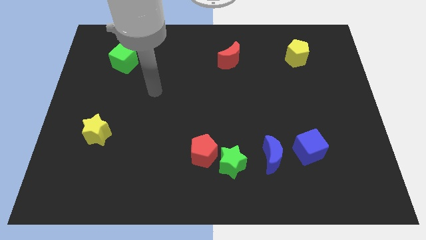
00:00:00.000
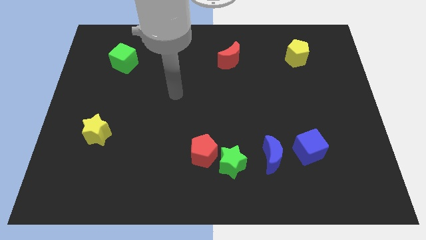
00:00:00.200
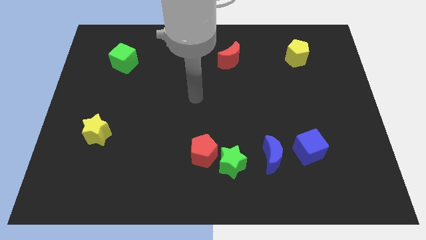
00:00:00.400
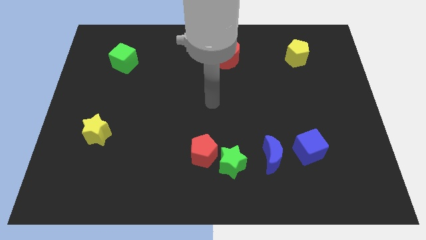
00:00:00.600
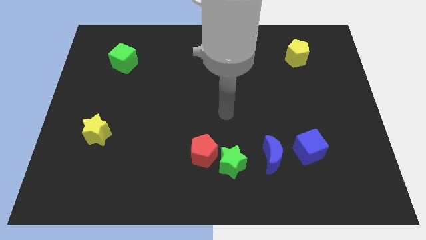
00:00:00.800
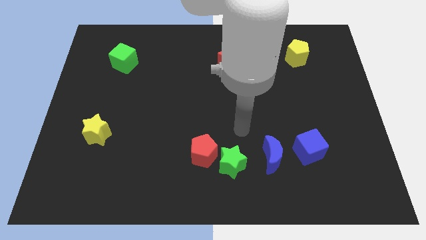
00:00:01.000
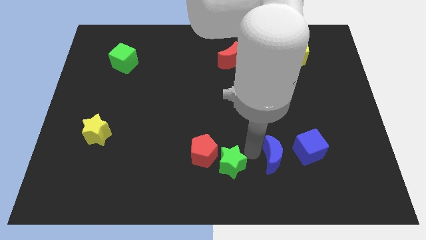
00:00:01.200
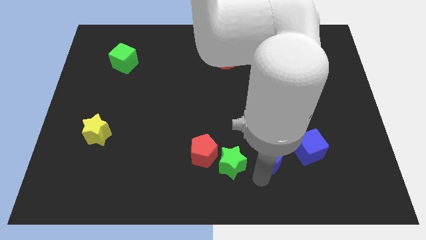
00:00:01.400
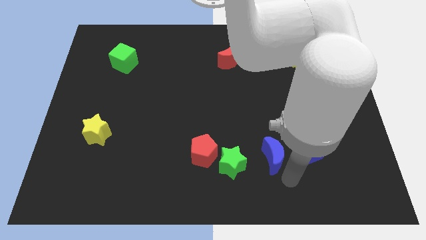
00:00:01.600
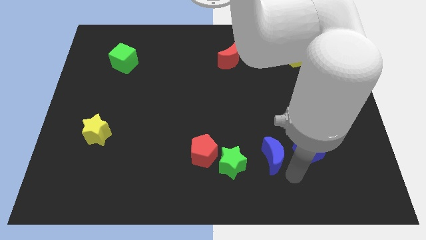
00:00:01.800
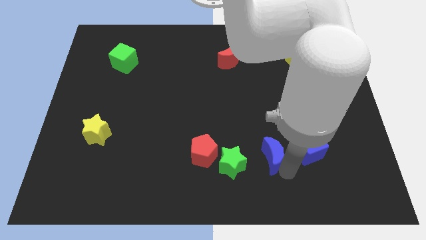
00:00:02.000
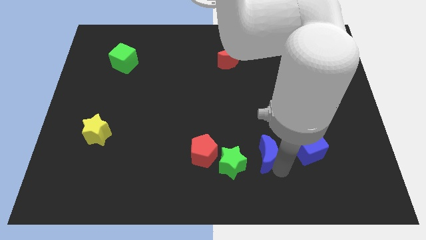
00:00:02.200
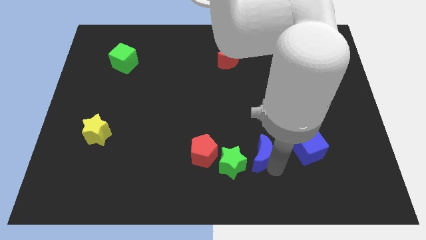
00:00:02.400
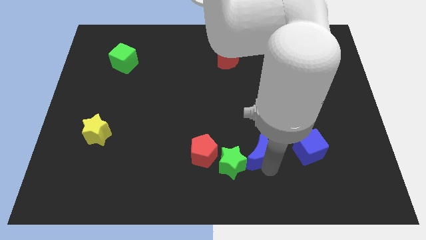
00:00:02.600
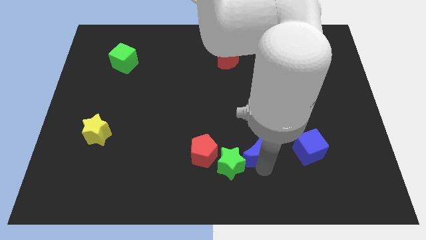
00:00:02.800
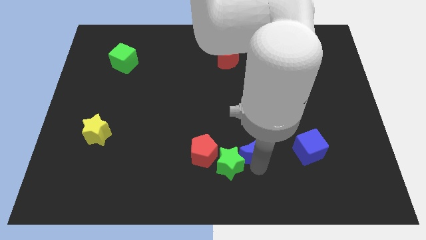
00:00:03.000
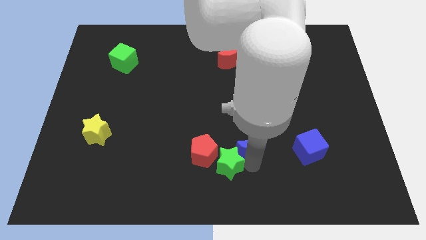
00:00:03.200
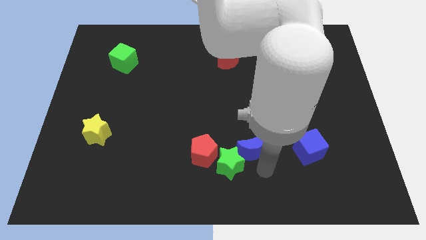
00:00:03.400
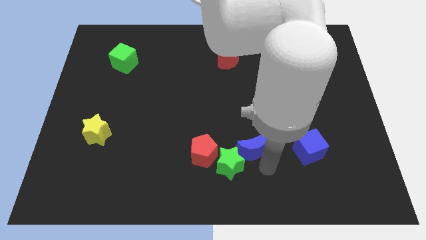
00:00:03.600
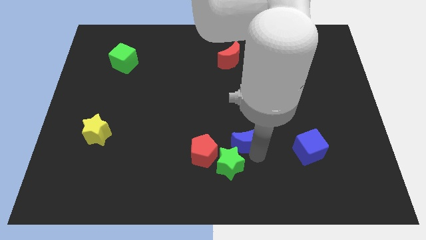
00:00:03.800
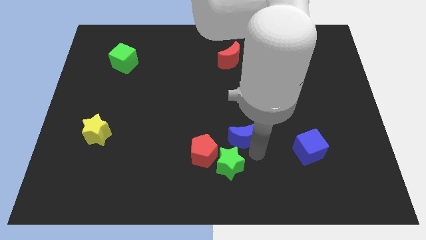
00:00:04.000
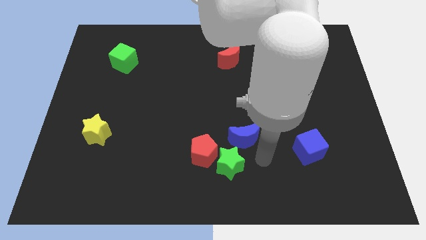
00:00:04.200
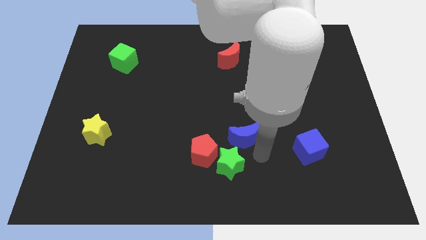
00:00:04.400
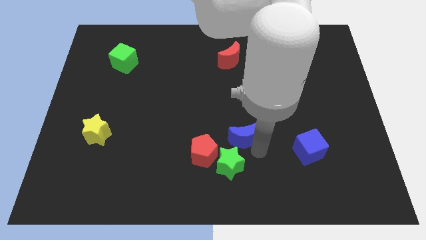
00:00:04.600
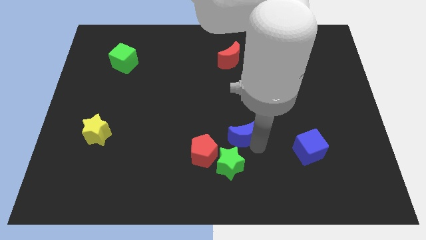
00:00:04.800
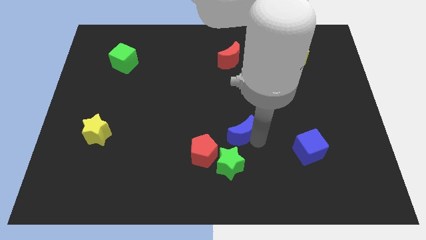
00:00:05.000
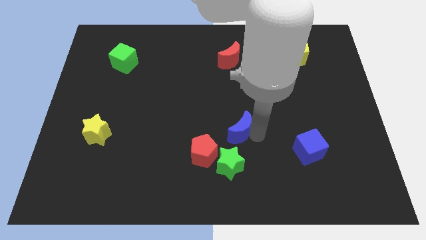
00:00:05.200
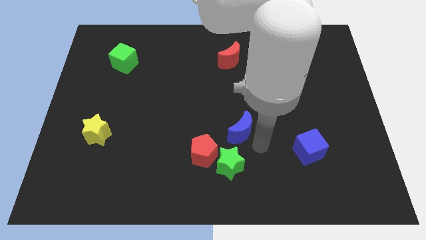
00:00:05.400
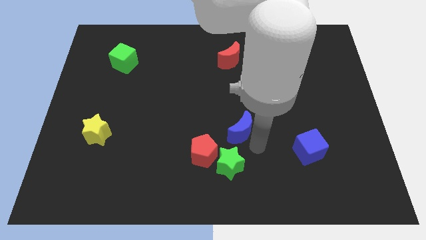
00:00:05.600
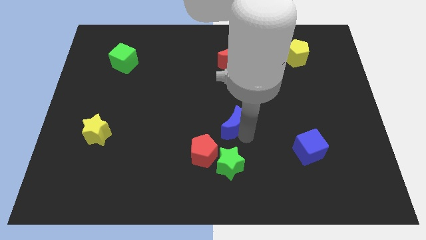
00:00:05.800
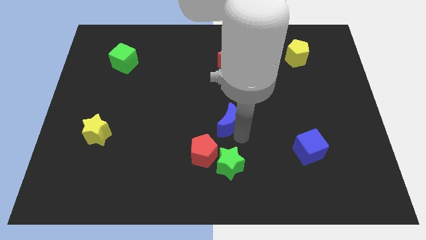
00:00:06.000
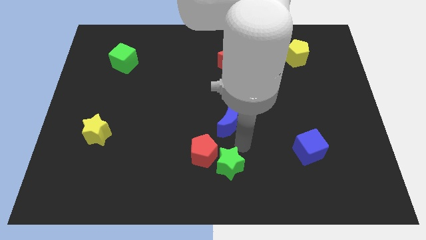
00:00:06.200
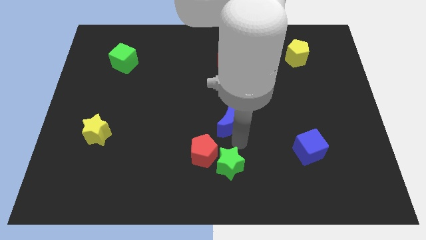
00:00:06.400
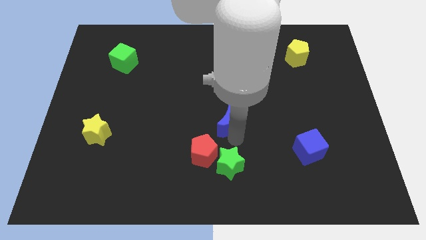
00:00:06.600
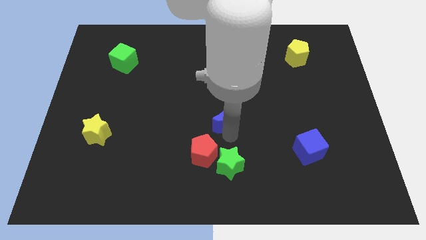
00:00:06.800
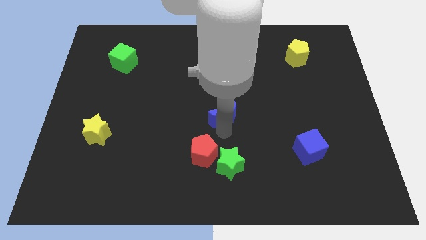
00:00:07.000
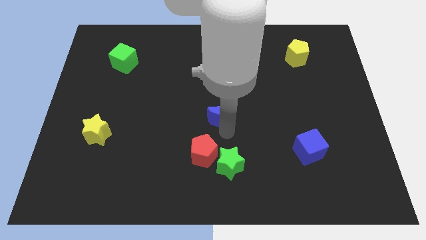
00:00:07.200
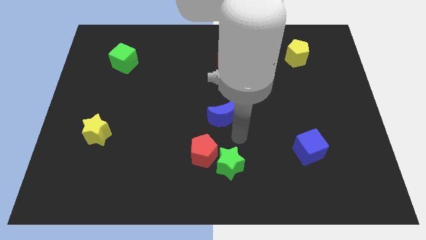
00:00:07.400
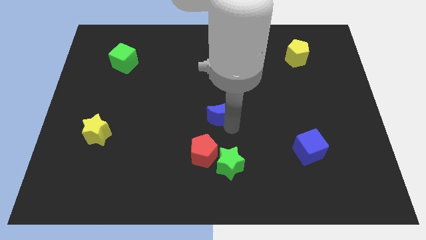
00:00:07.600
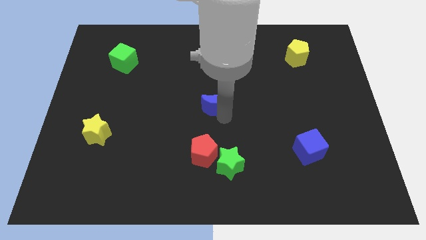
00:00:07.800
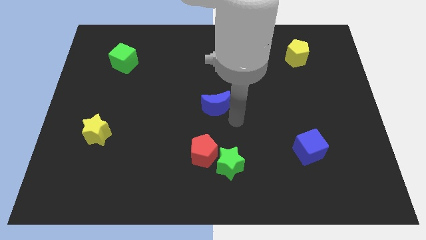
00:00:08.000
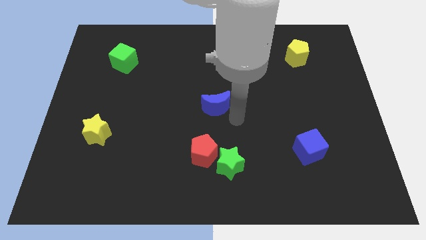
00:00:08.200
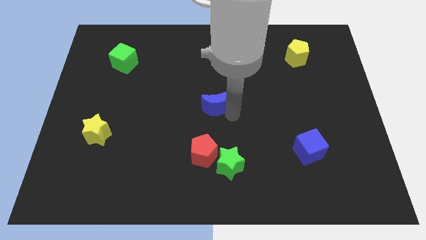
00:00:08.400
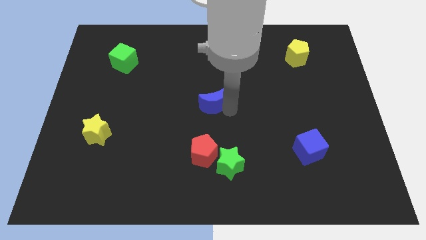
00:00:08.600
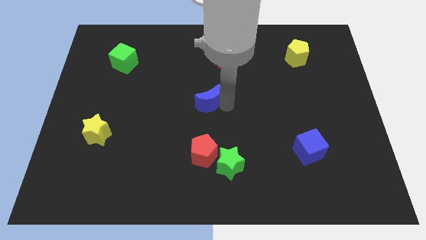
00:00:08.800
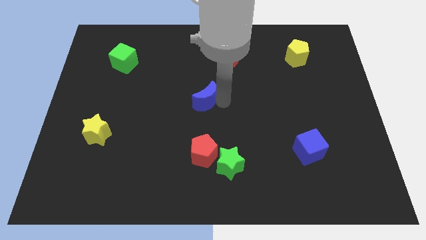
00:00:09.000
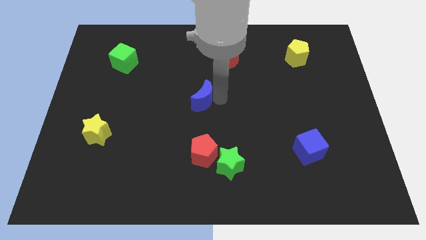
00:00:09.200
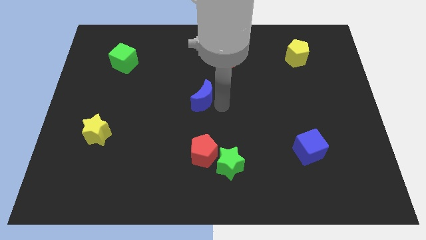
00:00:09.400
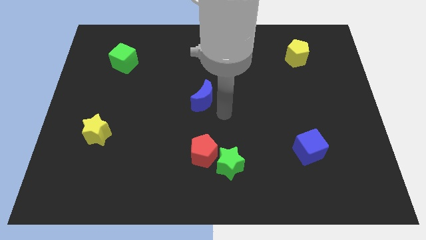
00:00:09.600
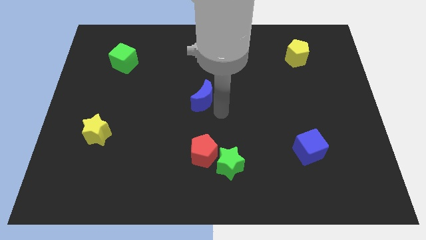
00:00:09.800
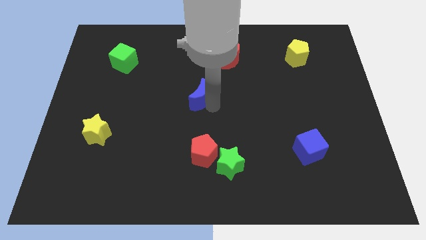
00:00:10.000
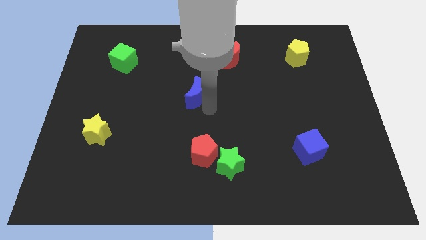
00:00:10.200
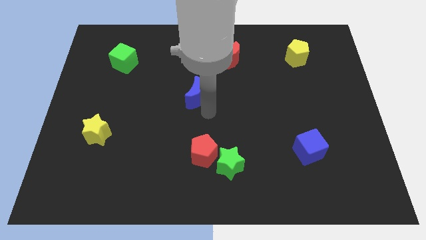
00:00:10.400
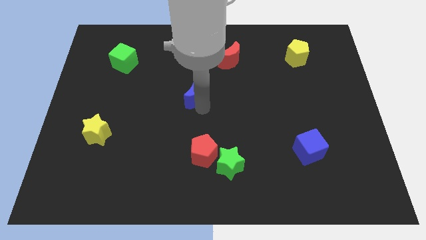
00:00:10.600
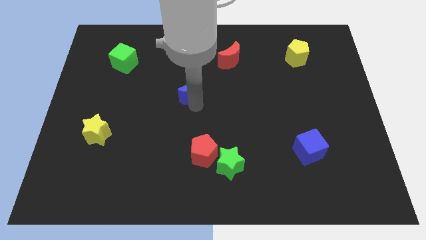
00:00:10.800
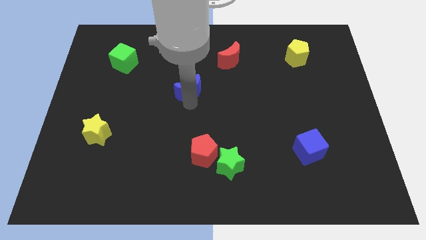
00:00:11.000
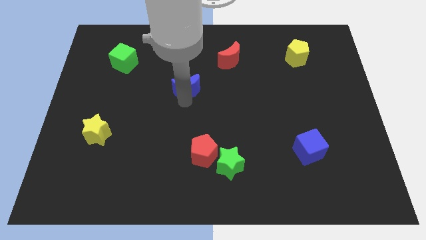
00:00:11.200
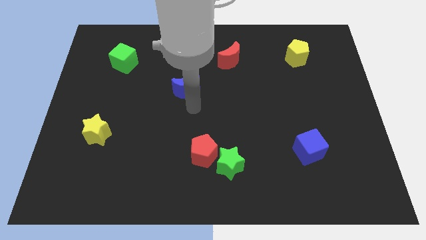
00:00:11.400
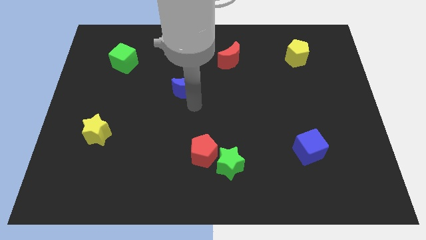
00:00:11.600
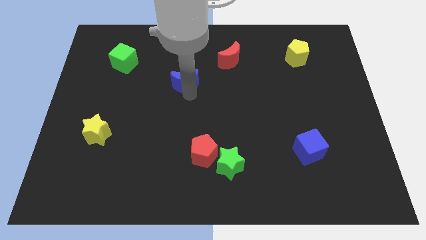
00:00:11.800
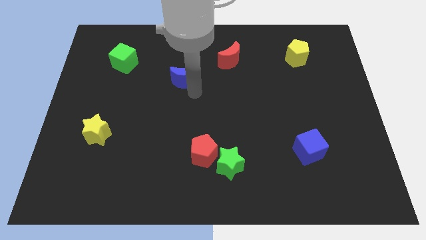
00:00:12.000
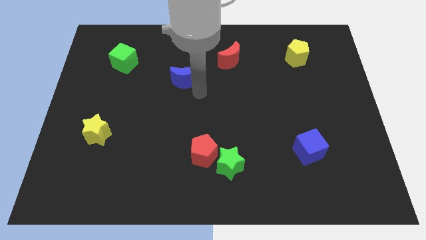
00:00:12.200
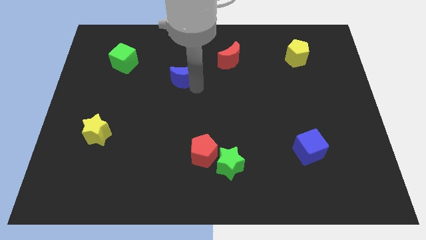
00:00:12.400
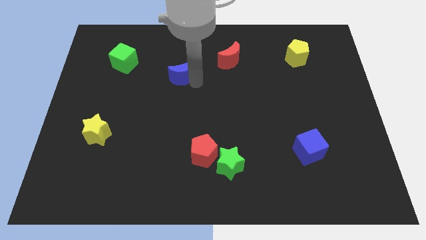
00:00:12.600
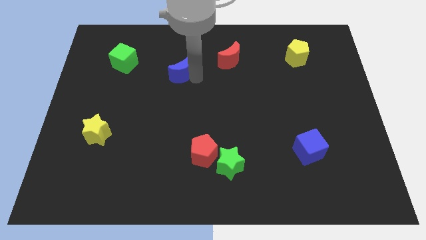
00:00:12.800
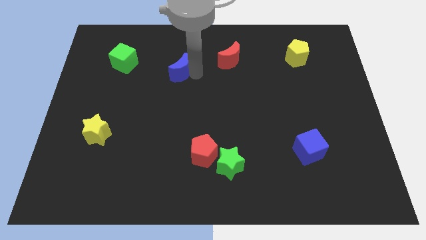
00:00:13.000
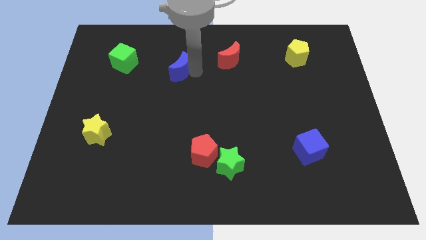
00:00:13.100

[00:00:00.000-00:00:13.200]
push the blue moon to the right of the green cube

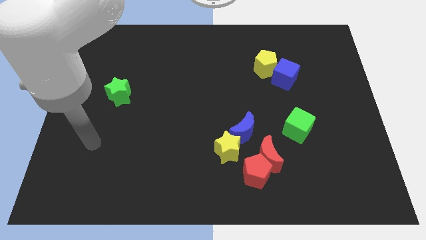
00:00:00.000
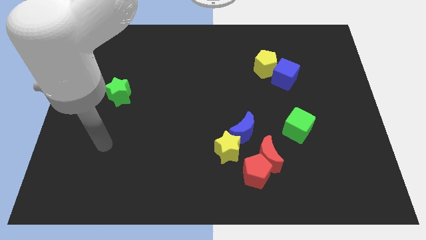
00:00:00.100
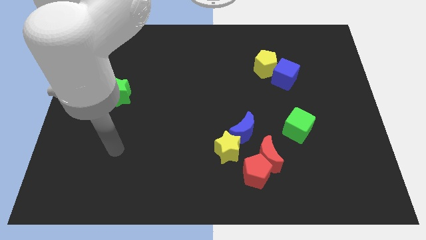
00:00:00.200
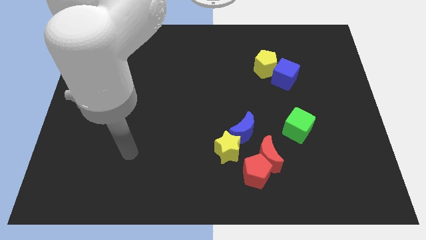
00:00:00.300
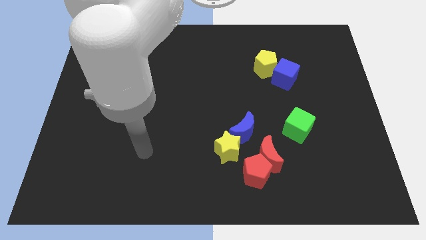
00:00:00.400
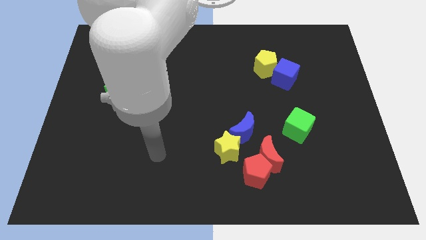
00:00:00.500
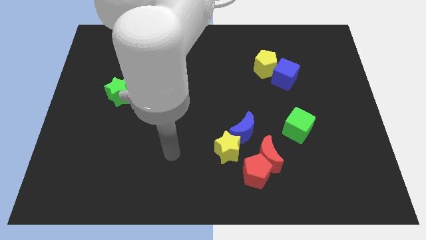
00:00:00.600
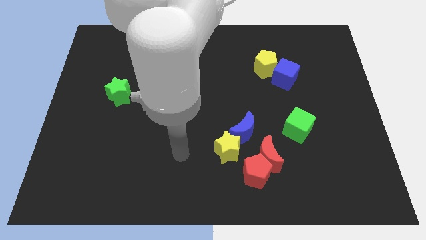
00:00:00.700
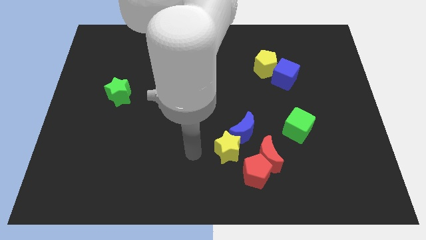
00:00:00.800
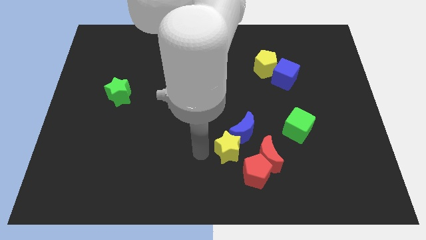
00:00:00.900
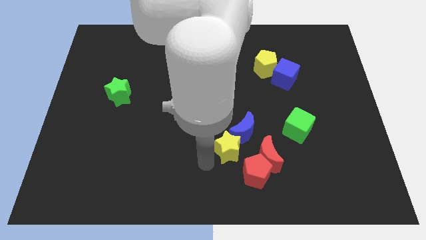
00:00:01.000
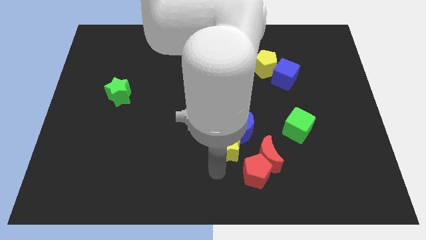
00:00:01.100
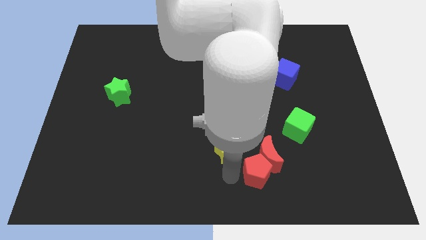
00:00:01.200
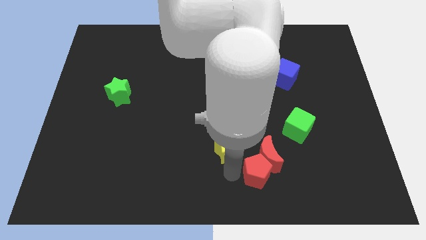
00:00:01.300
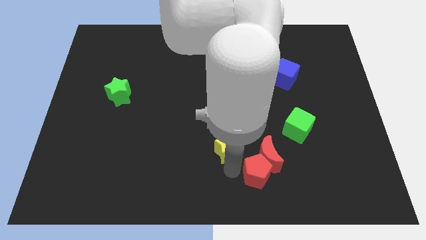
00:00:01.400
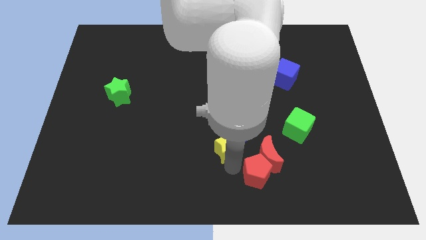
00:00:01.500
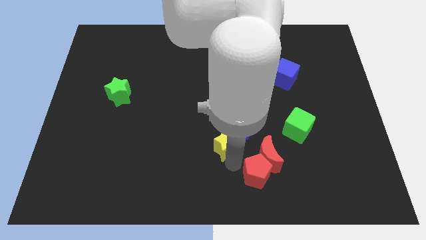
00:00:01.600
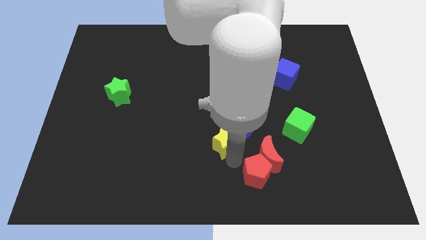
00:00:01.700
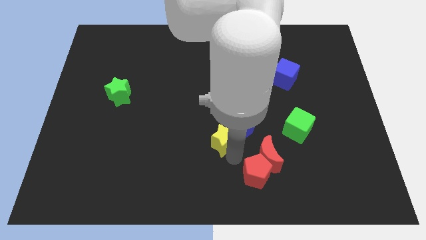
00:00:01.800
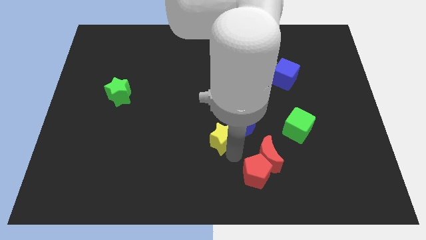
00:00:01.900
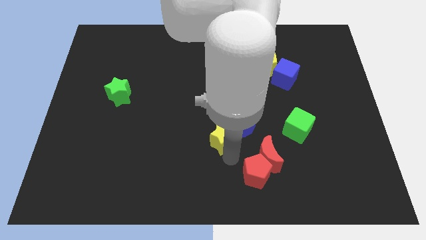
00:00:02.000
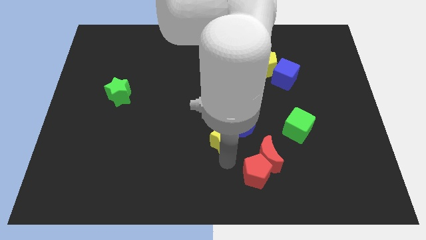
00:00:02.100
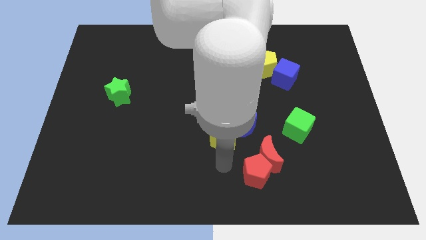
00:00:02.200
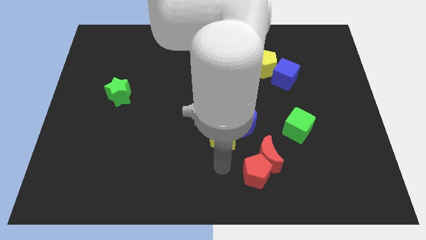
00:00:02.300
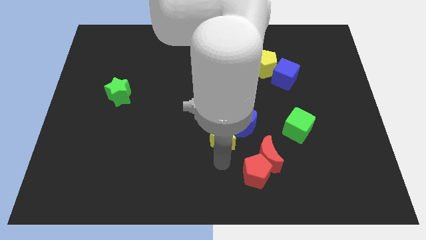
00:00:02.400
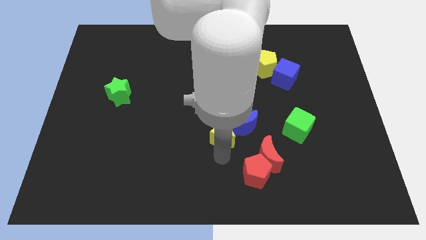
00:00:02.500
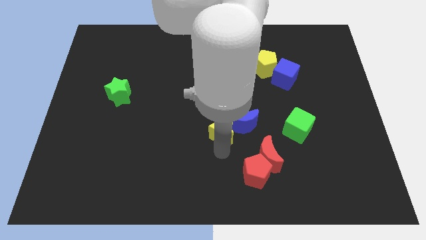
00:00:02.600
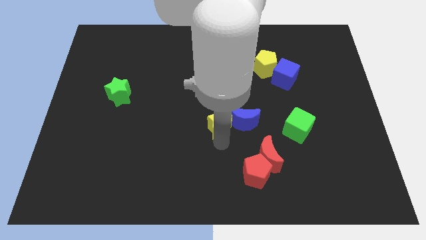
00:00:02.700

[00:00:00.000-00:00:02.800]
slide the yellow star to the top left side of the blue moon
